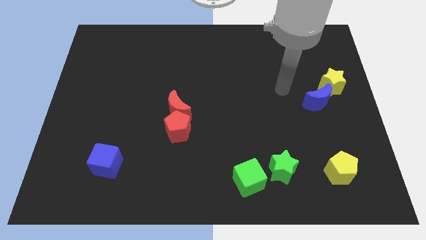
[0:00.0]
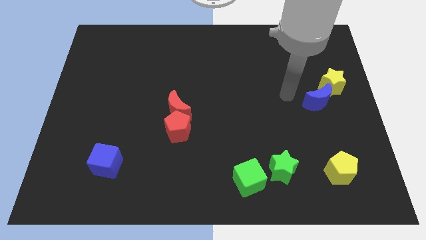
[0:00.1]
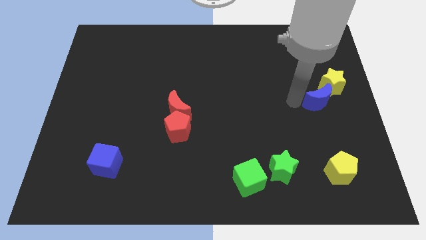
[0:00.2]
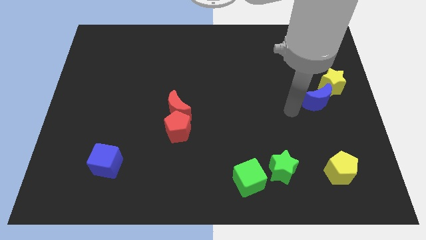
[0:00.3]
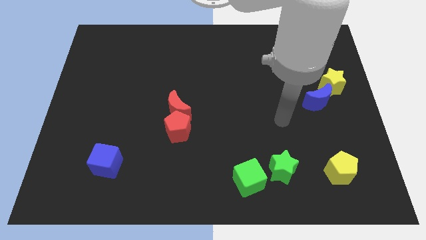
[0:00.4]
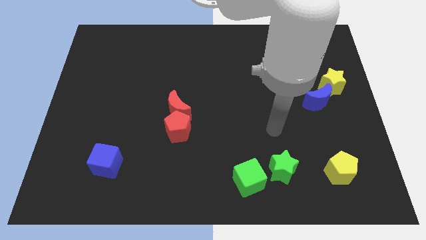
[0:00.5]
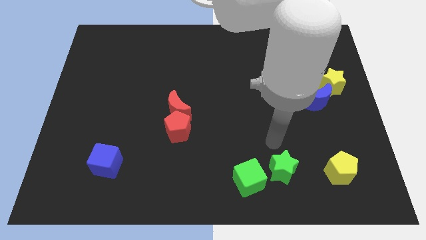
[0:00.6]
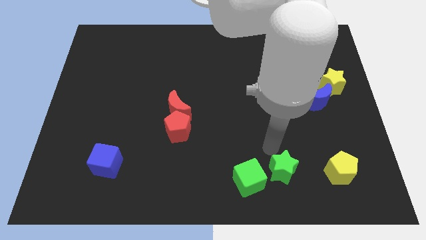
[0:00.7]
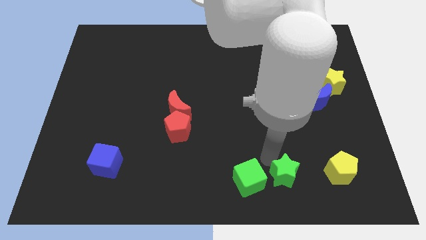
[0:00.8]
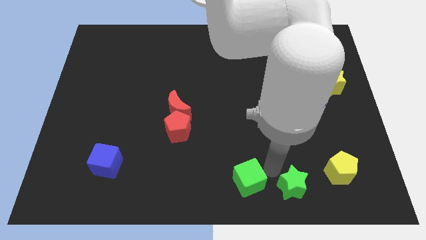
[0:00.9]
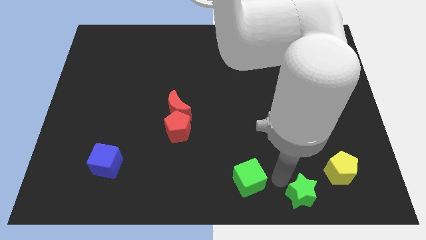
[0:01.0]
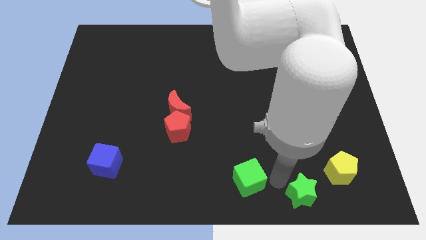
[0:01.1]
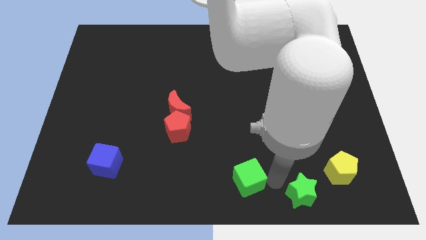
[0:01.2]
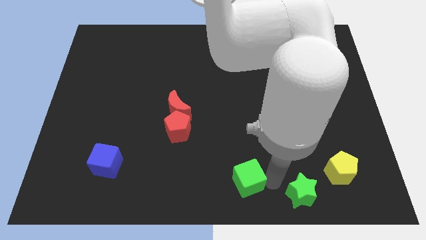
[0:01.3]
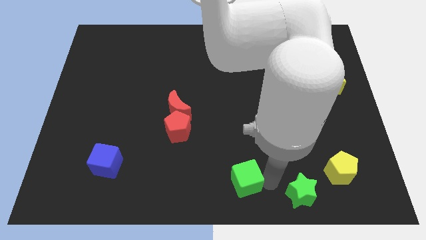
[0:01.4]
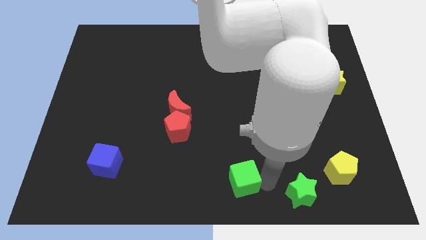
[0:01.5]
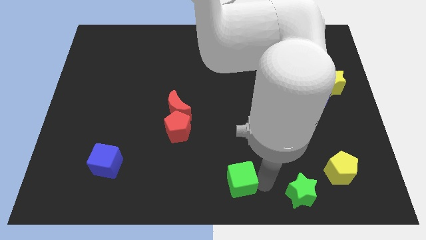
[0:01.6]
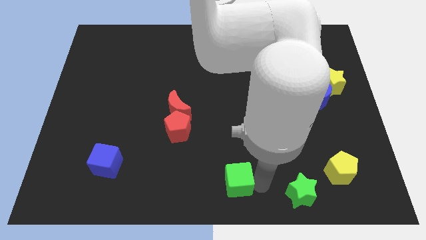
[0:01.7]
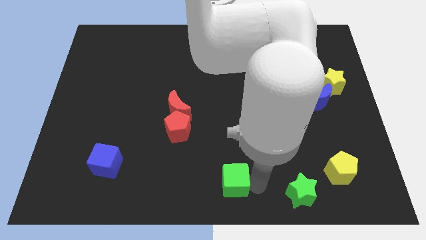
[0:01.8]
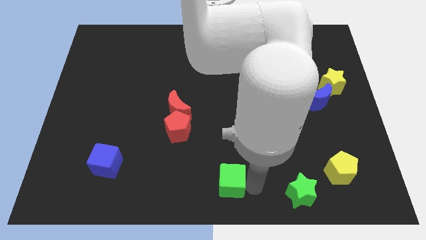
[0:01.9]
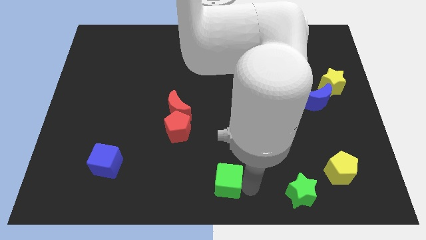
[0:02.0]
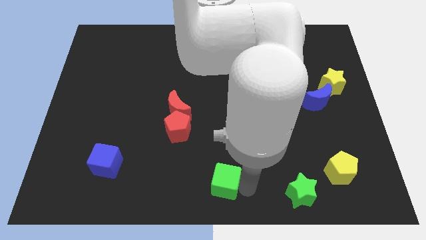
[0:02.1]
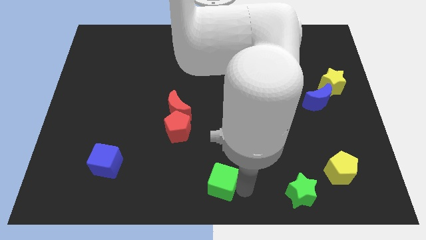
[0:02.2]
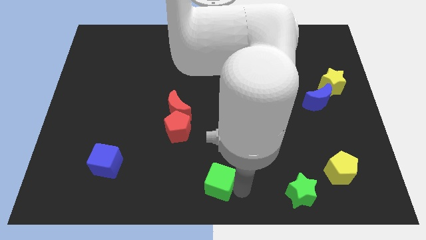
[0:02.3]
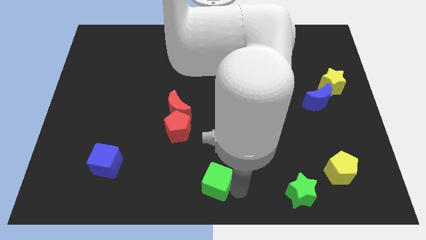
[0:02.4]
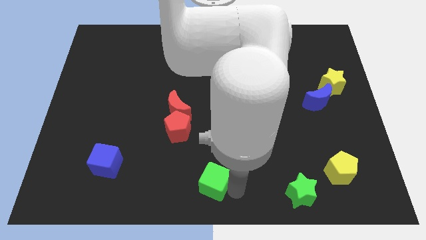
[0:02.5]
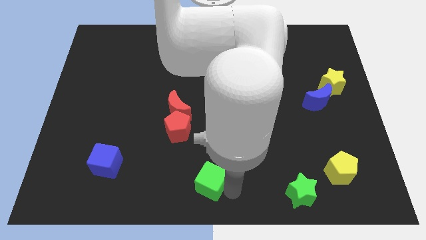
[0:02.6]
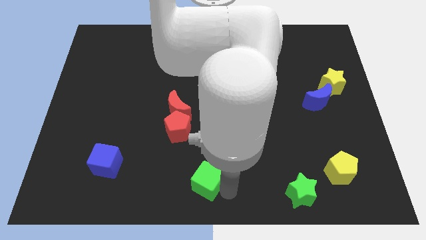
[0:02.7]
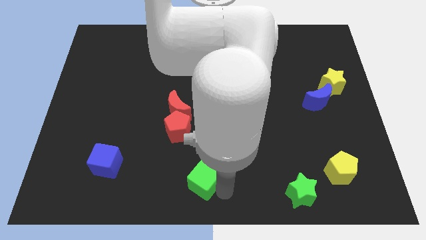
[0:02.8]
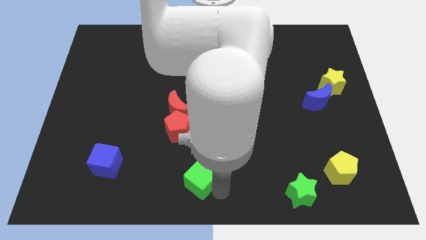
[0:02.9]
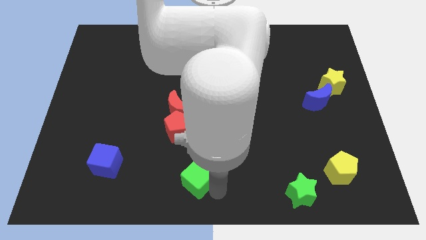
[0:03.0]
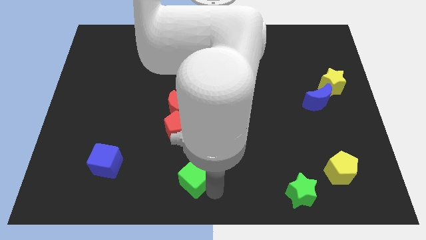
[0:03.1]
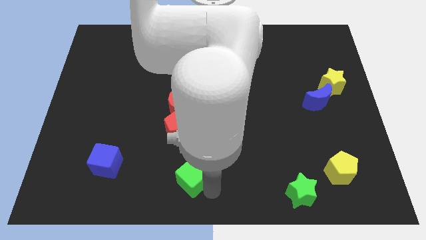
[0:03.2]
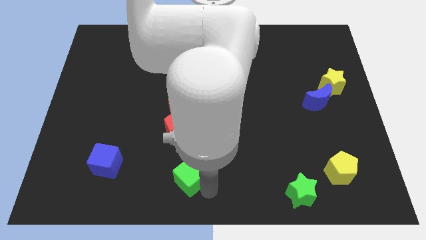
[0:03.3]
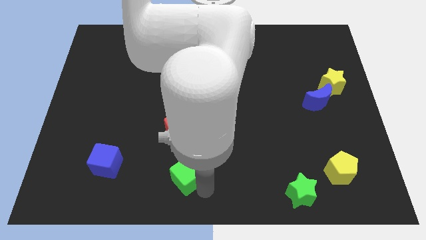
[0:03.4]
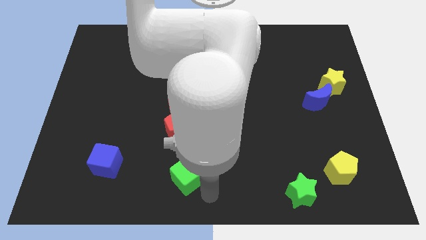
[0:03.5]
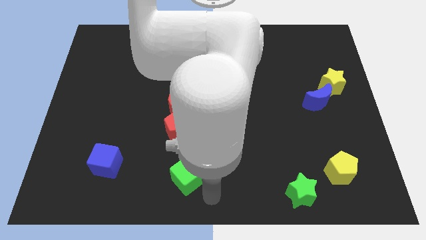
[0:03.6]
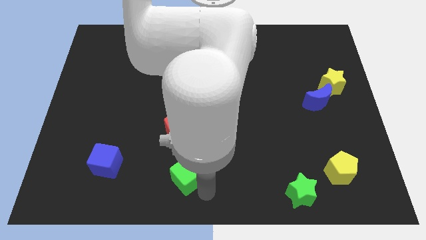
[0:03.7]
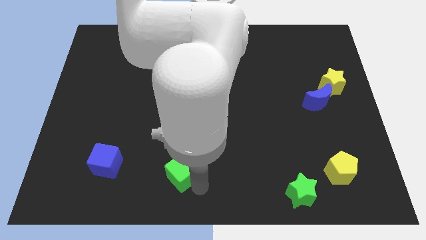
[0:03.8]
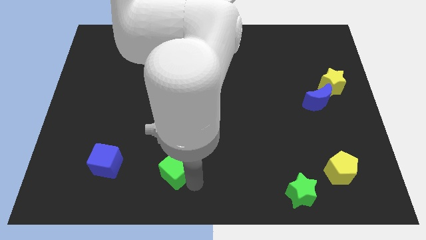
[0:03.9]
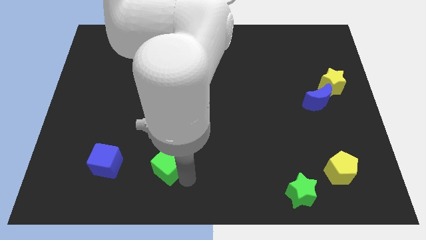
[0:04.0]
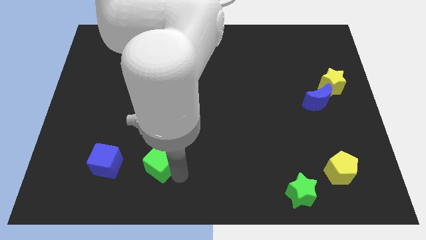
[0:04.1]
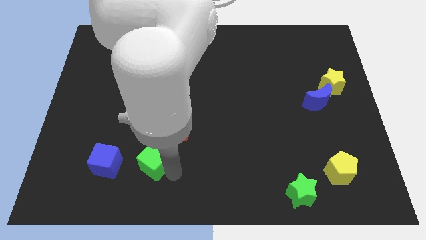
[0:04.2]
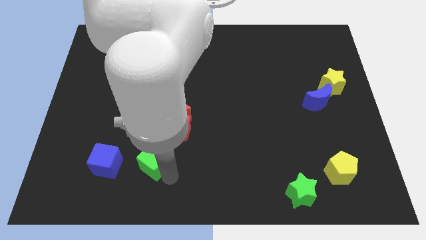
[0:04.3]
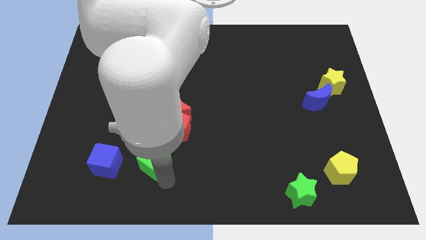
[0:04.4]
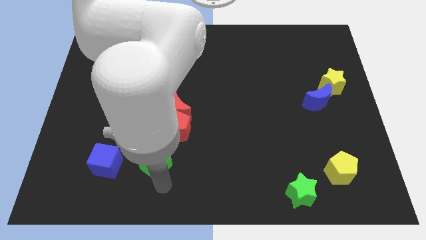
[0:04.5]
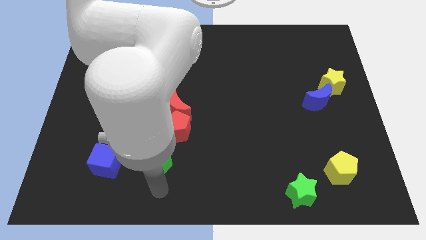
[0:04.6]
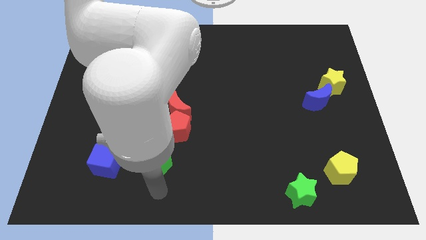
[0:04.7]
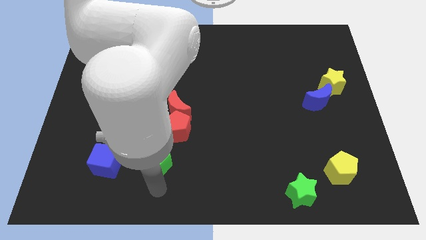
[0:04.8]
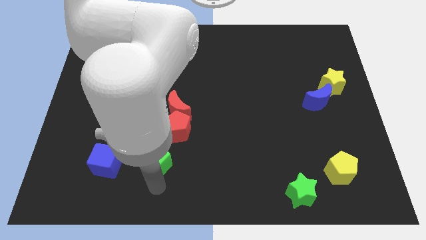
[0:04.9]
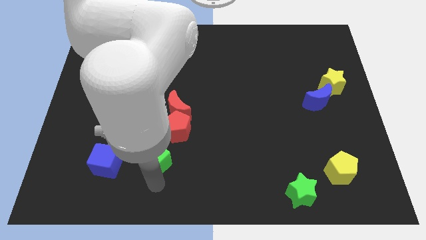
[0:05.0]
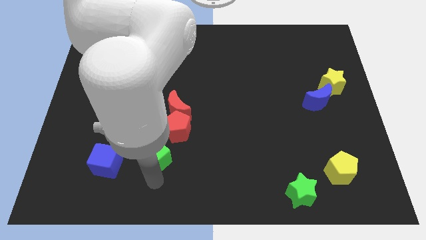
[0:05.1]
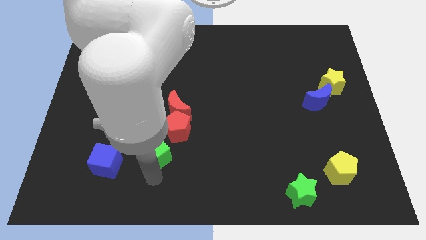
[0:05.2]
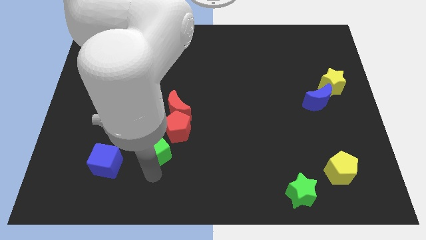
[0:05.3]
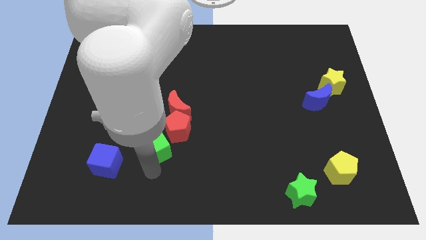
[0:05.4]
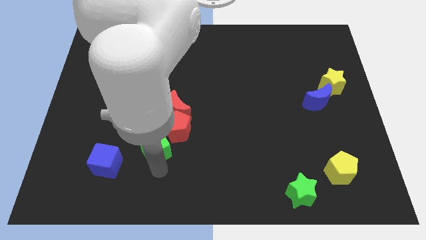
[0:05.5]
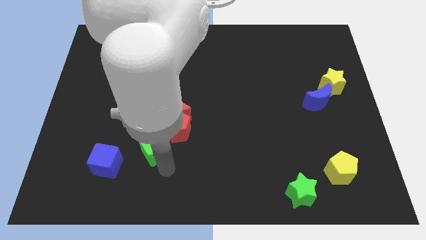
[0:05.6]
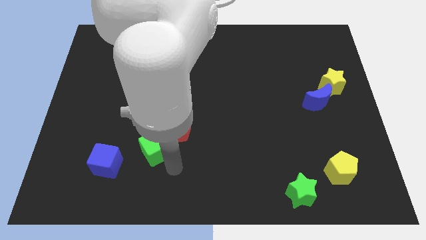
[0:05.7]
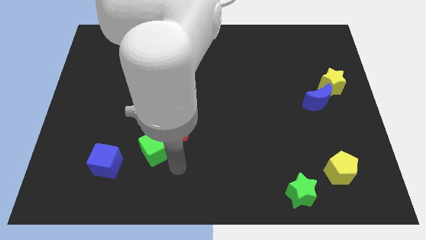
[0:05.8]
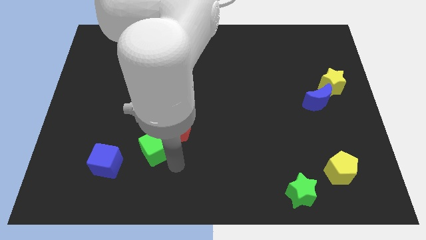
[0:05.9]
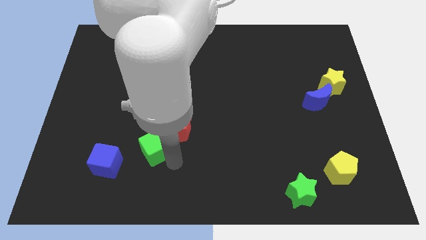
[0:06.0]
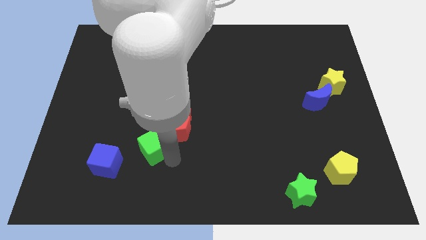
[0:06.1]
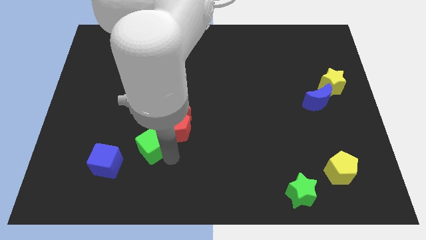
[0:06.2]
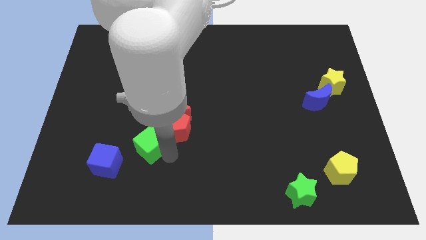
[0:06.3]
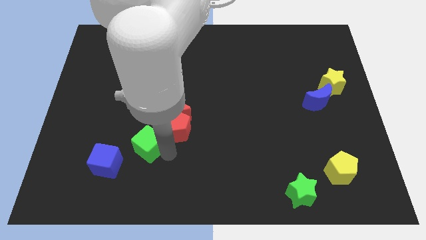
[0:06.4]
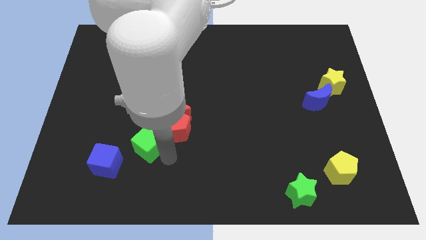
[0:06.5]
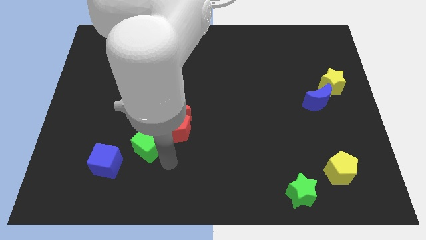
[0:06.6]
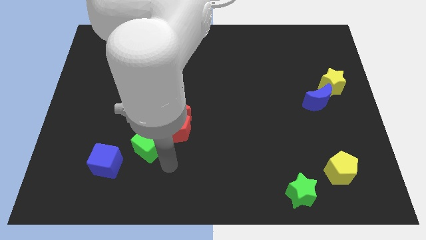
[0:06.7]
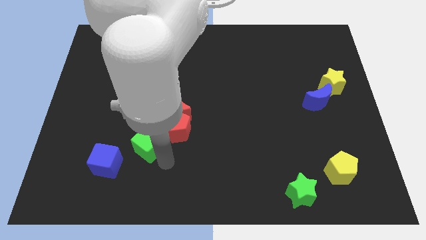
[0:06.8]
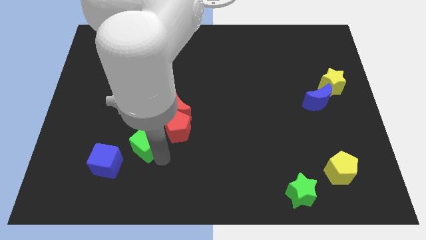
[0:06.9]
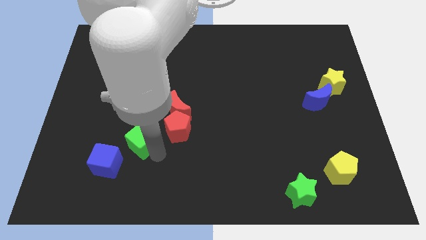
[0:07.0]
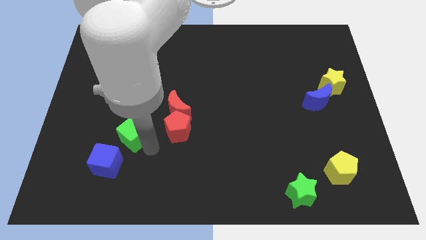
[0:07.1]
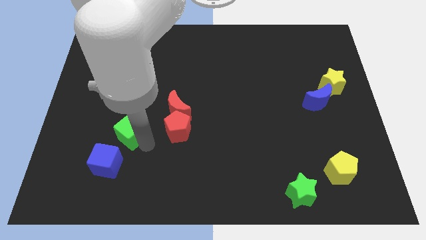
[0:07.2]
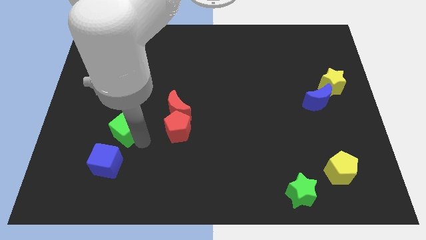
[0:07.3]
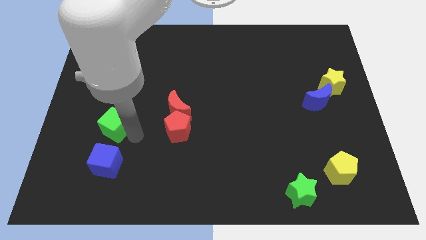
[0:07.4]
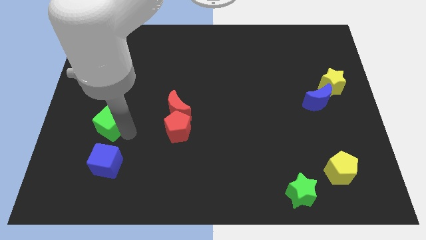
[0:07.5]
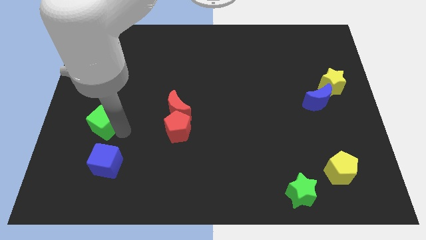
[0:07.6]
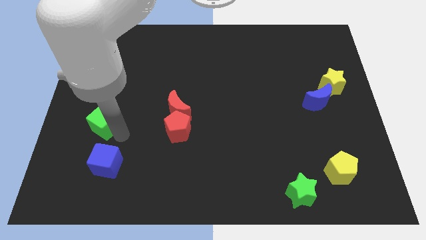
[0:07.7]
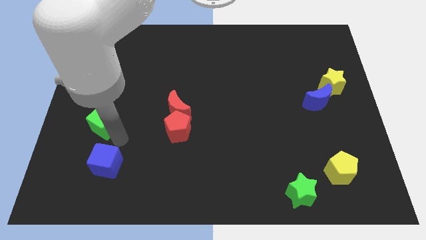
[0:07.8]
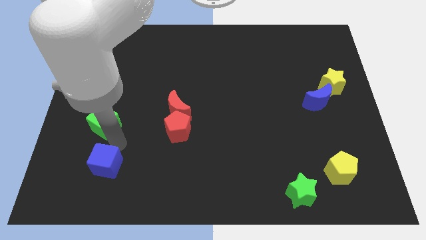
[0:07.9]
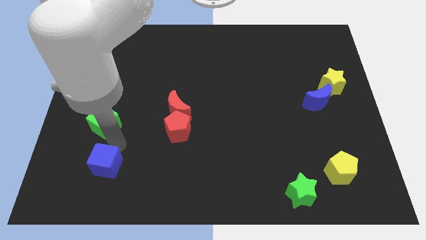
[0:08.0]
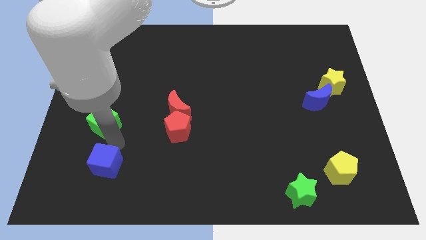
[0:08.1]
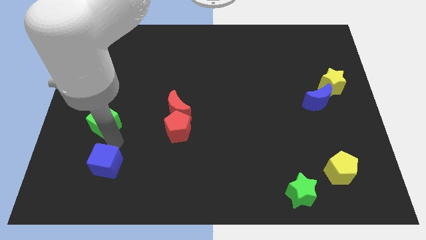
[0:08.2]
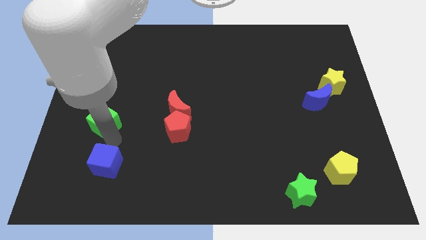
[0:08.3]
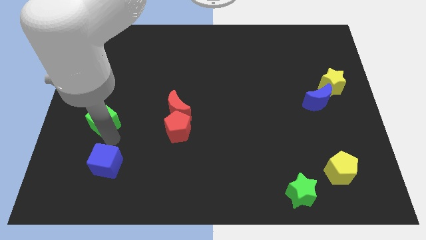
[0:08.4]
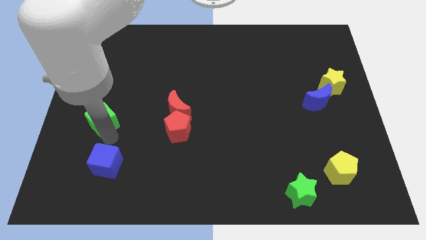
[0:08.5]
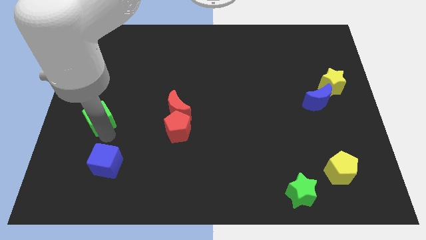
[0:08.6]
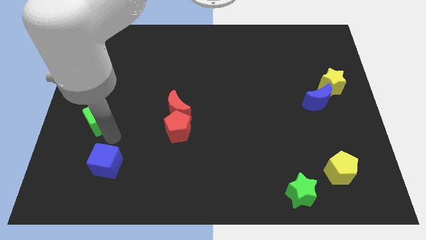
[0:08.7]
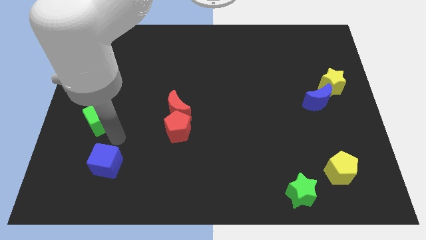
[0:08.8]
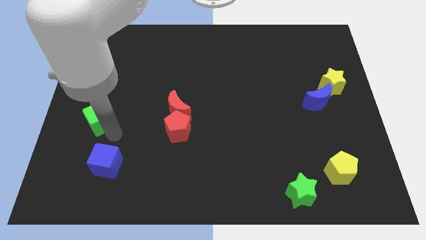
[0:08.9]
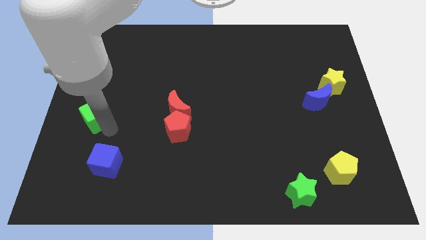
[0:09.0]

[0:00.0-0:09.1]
put the green cube to the center left
